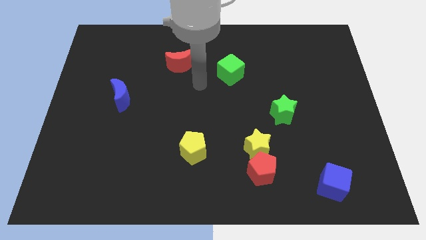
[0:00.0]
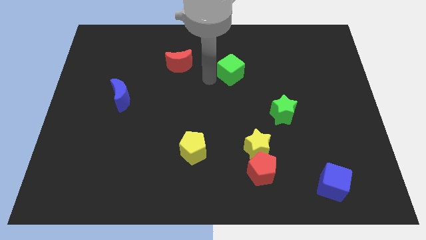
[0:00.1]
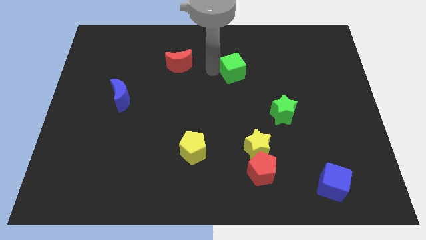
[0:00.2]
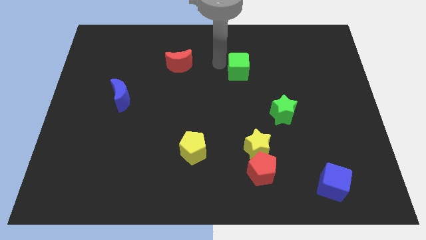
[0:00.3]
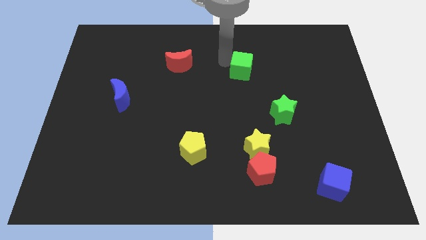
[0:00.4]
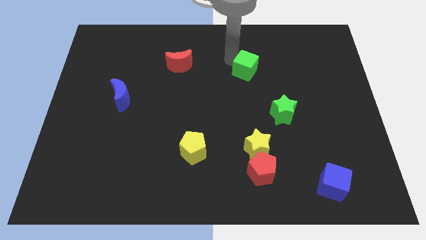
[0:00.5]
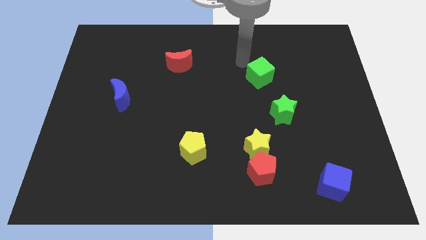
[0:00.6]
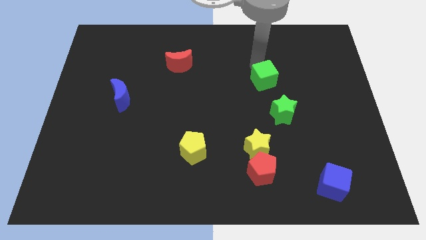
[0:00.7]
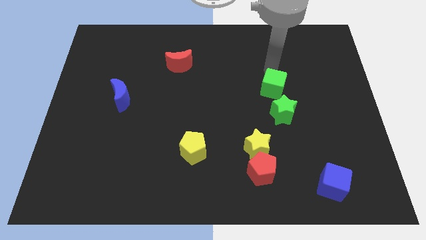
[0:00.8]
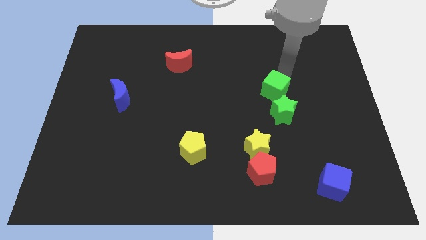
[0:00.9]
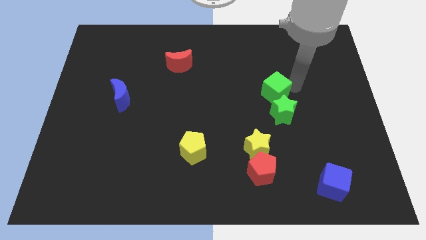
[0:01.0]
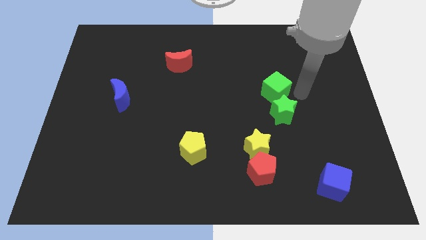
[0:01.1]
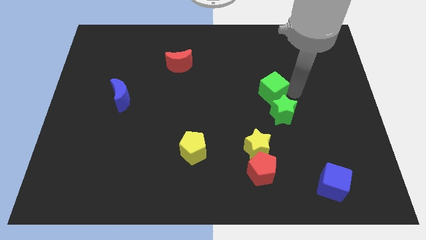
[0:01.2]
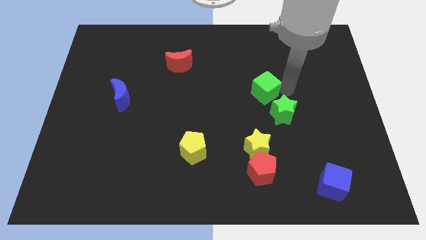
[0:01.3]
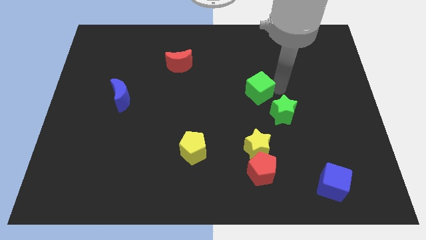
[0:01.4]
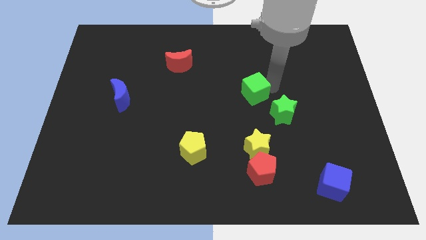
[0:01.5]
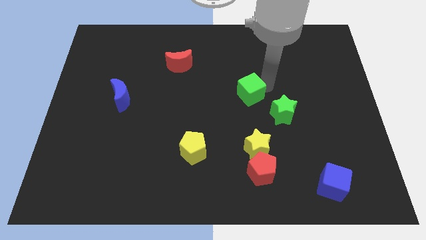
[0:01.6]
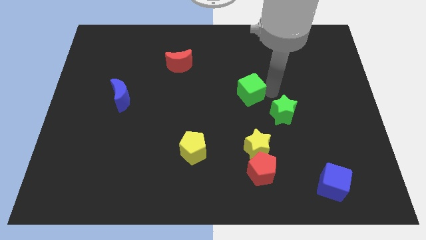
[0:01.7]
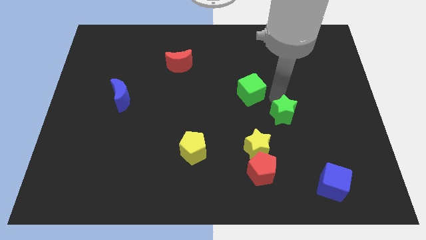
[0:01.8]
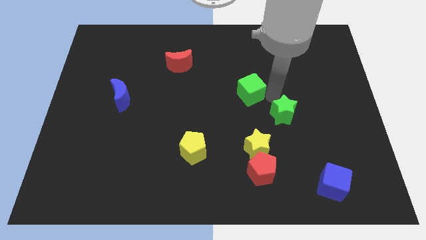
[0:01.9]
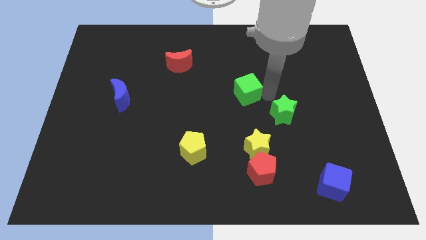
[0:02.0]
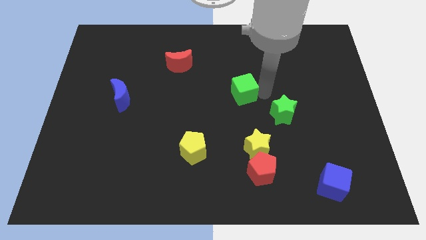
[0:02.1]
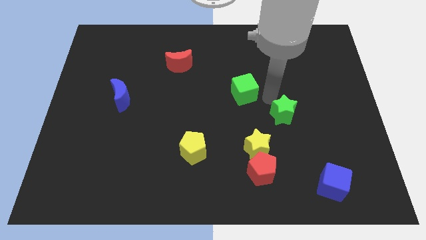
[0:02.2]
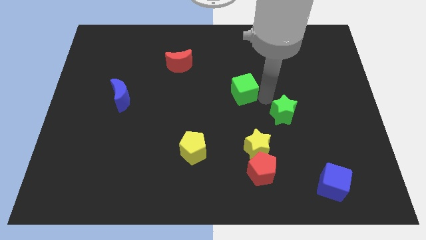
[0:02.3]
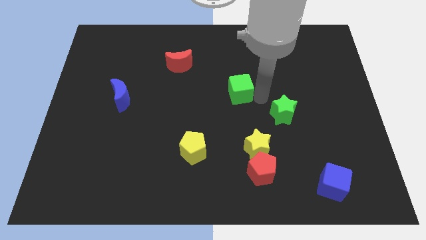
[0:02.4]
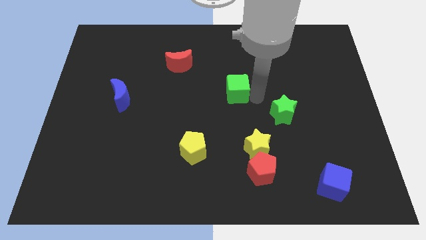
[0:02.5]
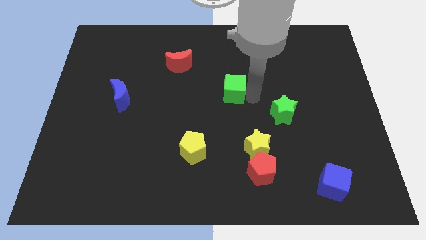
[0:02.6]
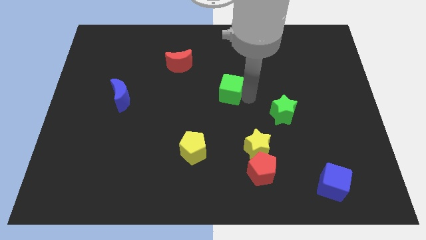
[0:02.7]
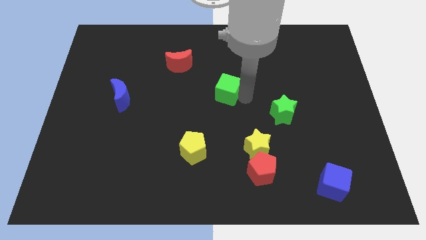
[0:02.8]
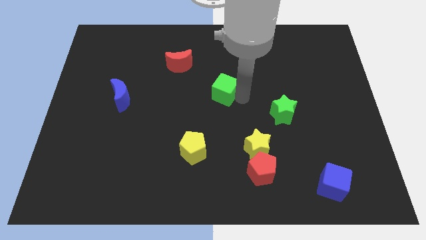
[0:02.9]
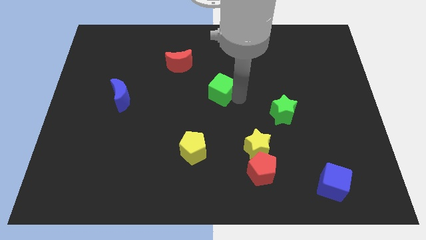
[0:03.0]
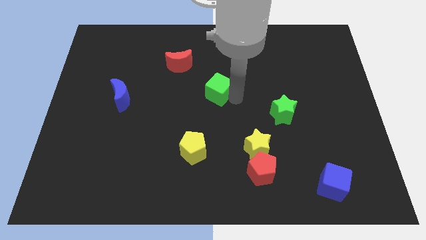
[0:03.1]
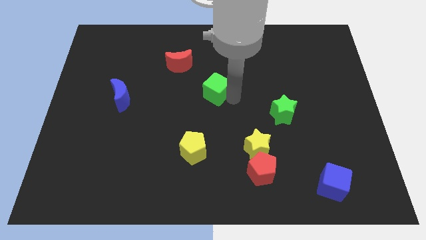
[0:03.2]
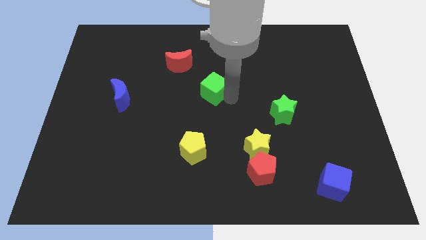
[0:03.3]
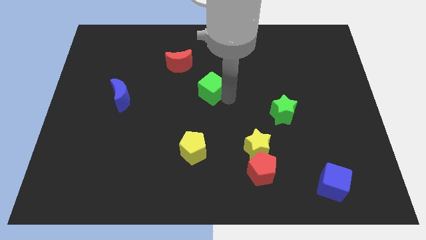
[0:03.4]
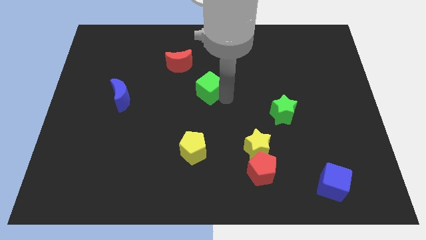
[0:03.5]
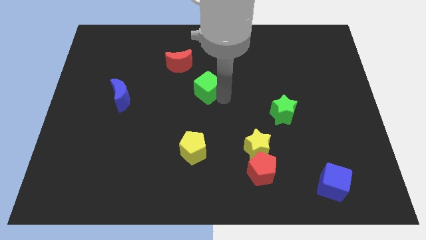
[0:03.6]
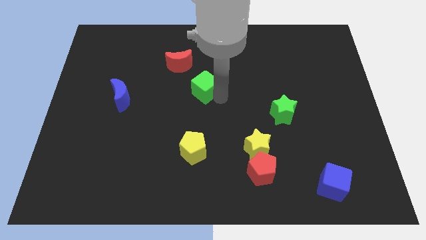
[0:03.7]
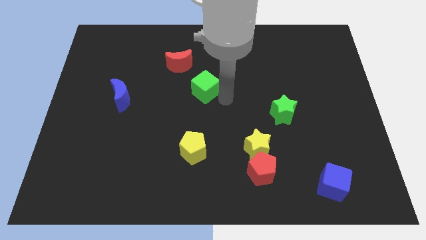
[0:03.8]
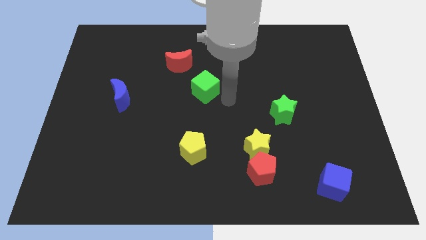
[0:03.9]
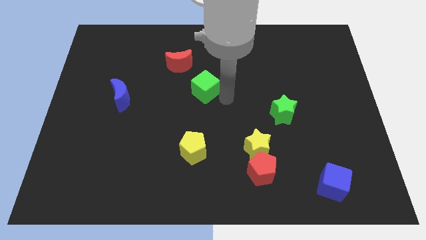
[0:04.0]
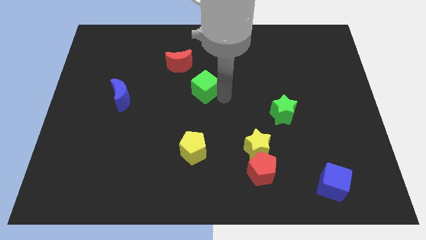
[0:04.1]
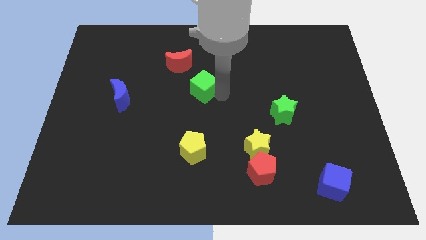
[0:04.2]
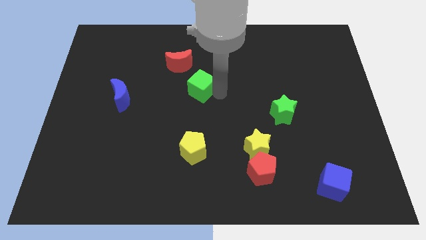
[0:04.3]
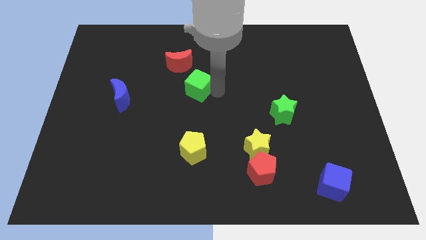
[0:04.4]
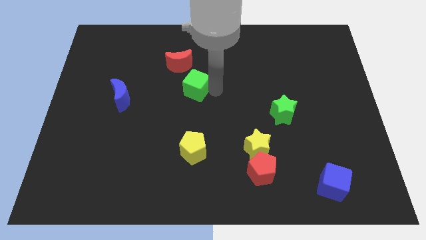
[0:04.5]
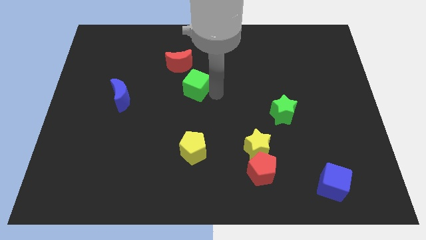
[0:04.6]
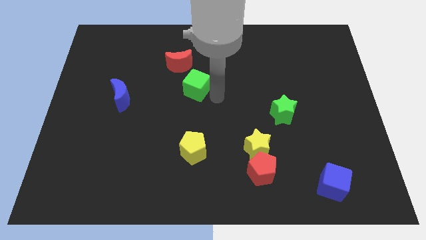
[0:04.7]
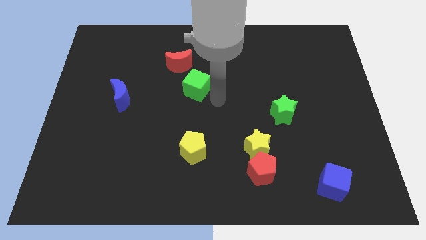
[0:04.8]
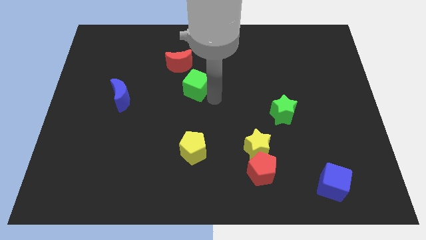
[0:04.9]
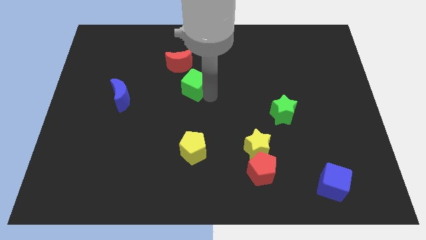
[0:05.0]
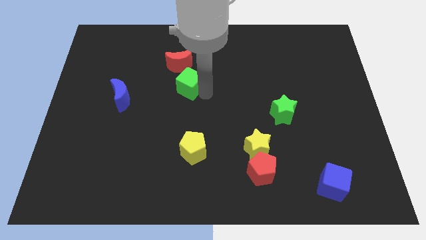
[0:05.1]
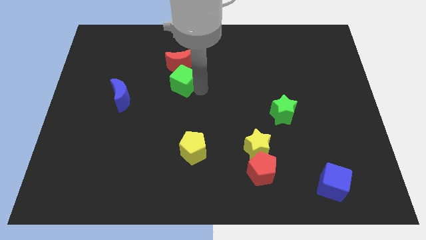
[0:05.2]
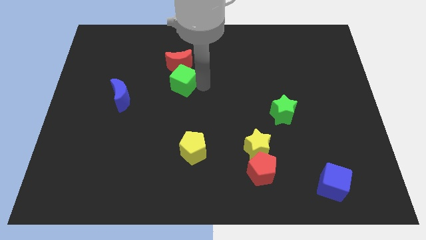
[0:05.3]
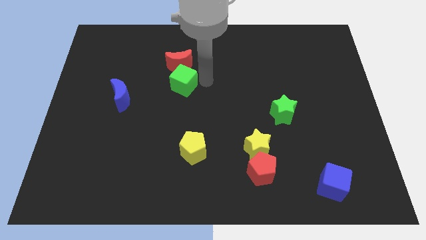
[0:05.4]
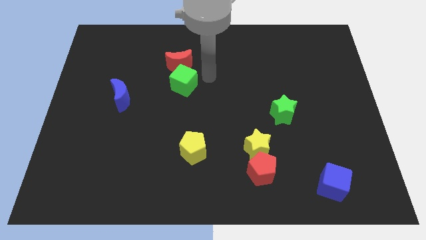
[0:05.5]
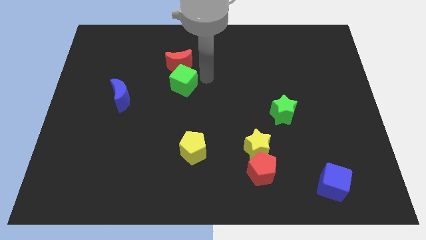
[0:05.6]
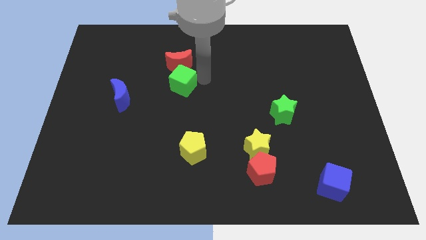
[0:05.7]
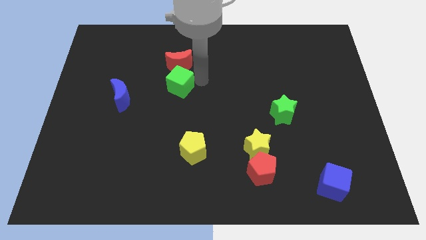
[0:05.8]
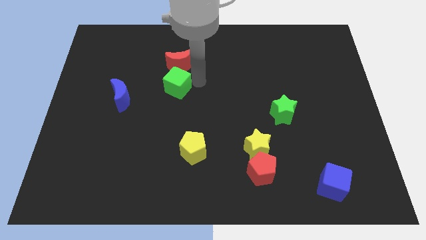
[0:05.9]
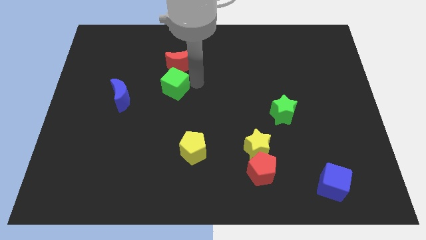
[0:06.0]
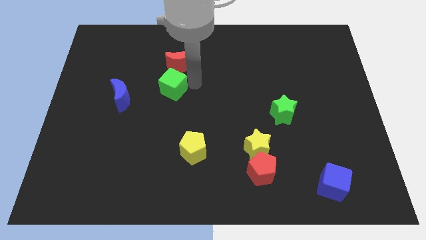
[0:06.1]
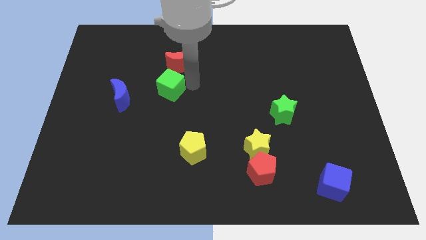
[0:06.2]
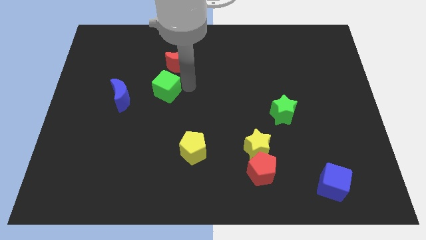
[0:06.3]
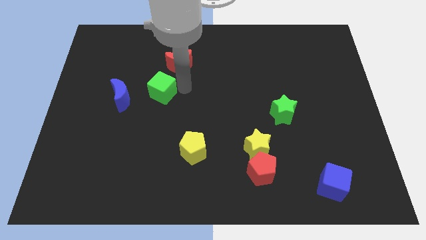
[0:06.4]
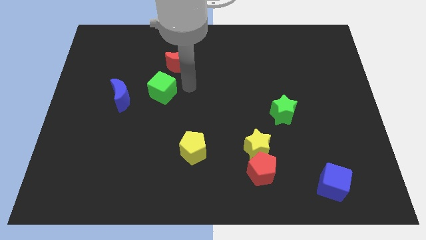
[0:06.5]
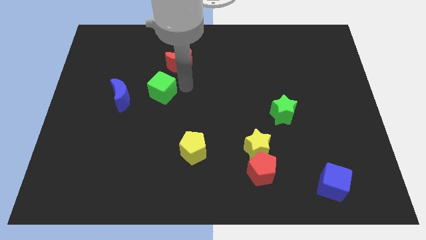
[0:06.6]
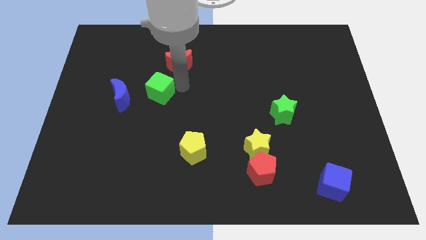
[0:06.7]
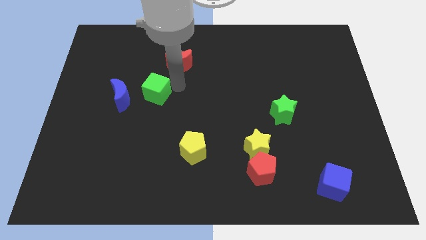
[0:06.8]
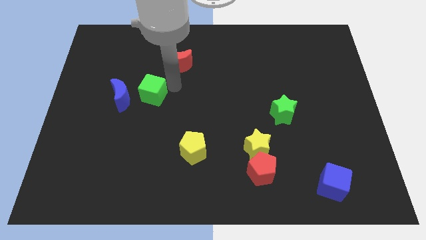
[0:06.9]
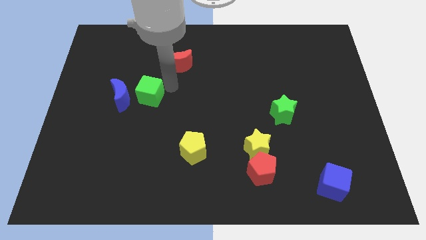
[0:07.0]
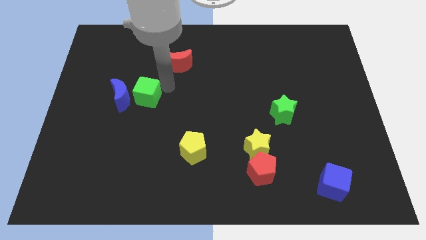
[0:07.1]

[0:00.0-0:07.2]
move the green cube towards the blue moon
